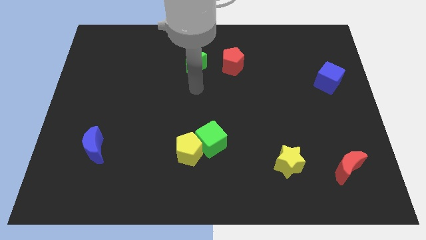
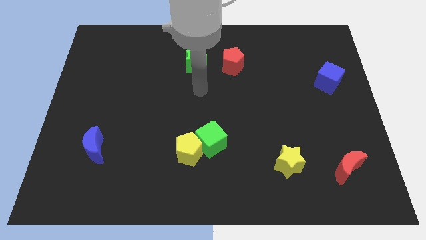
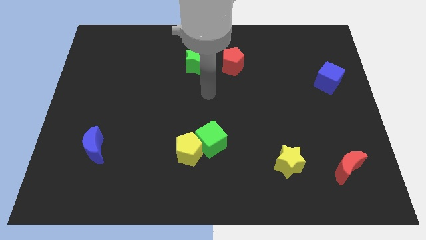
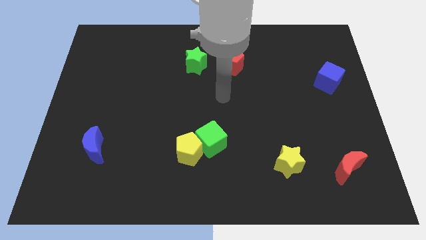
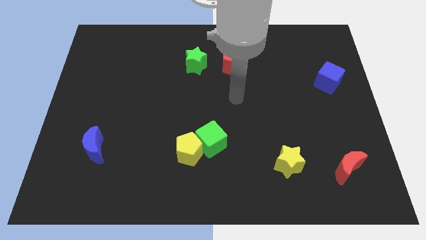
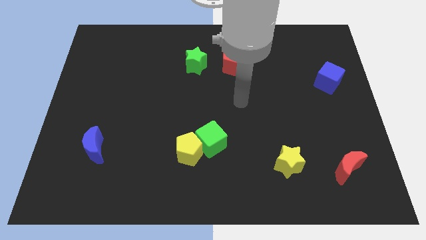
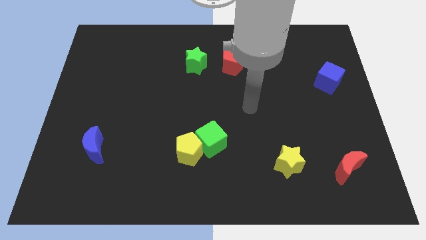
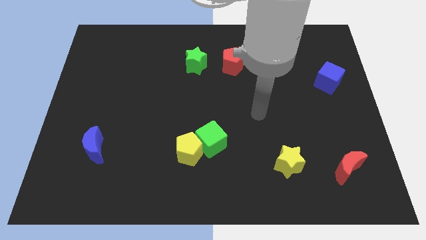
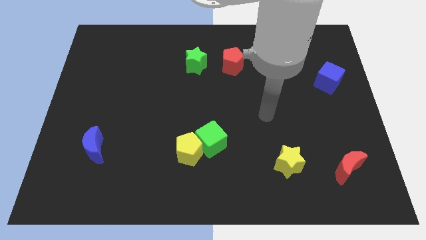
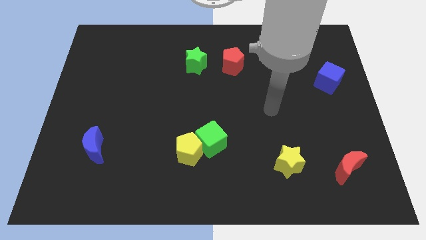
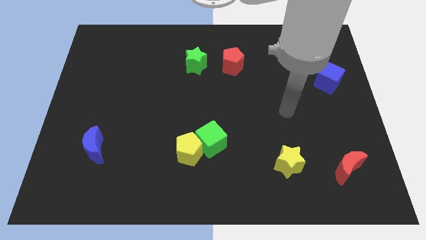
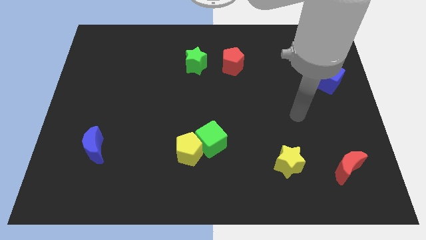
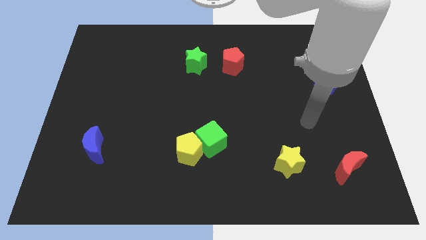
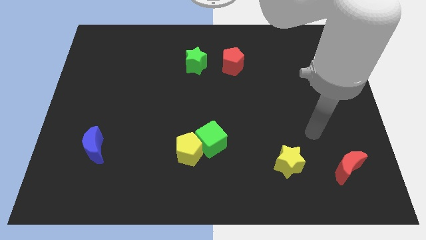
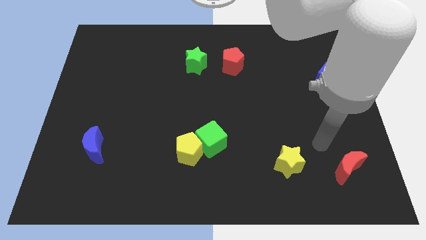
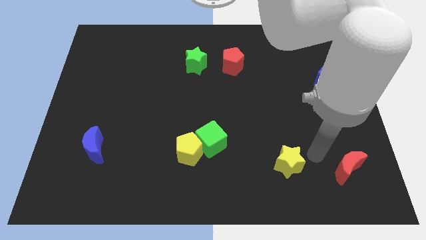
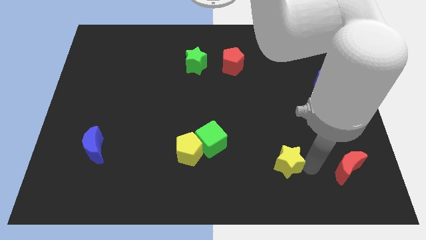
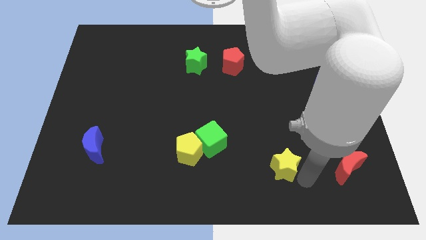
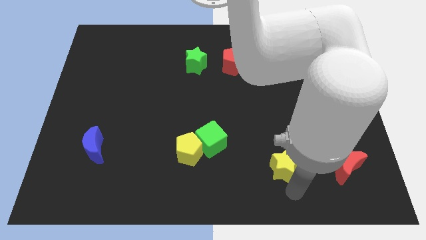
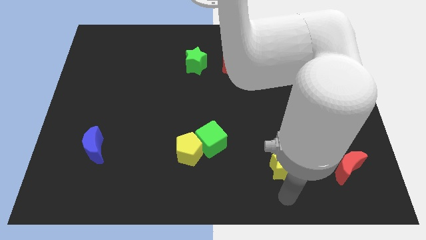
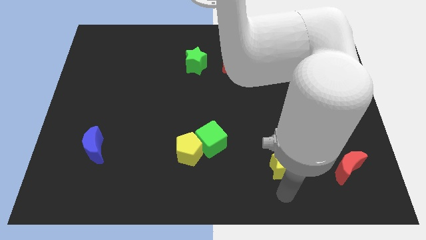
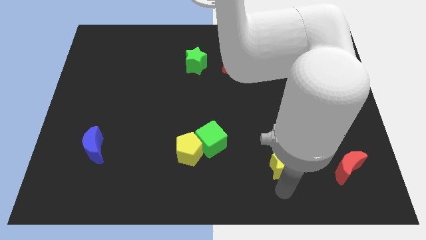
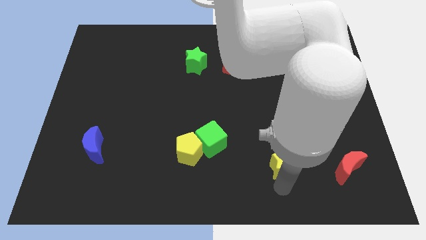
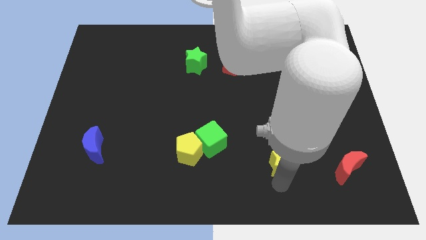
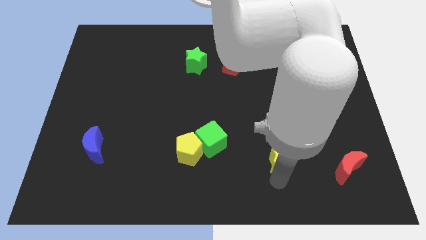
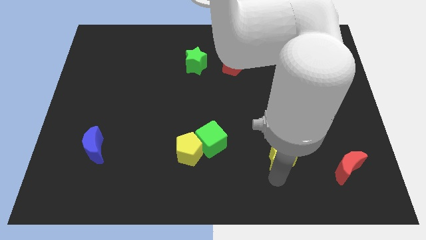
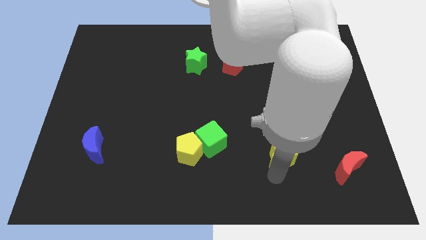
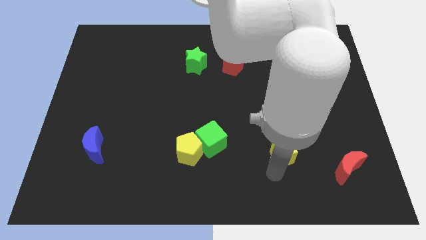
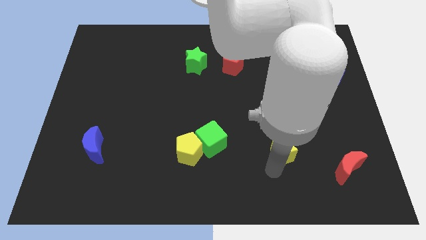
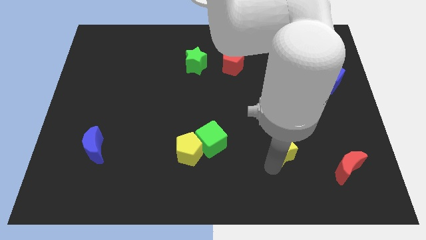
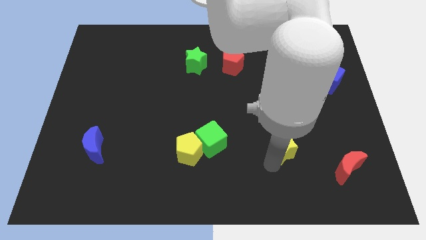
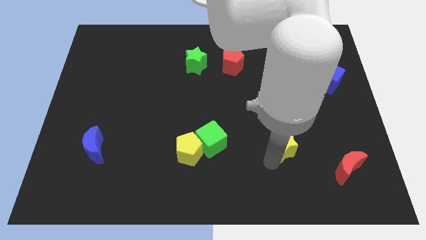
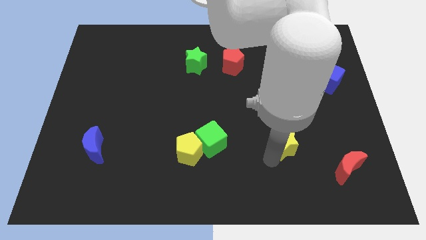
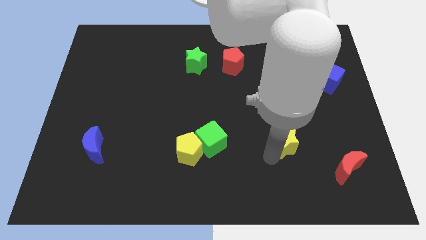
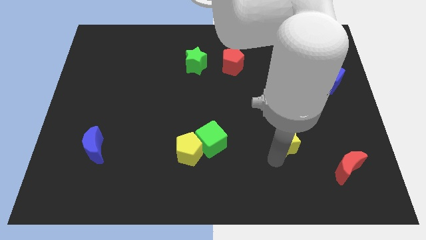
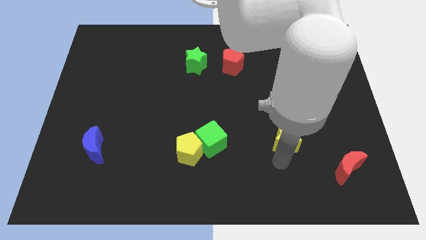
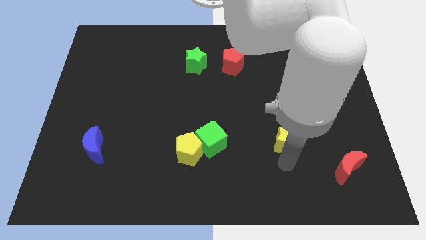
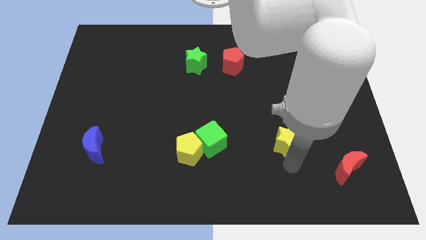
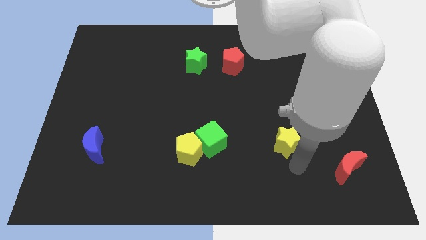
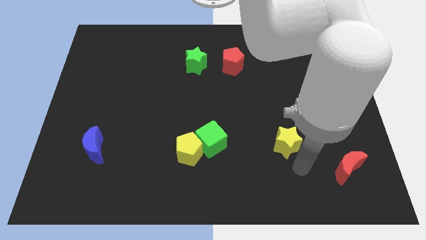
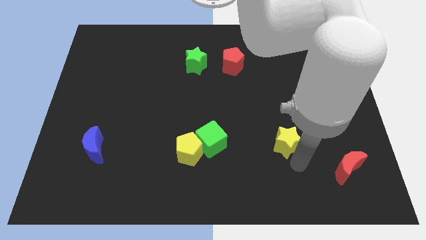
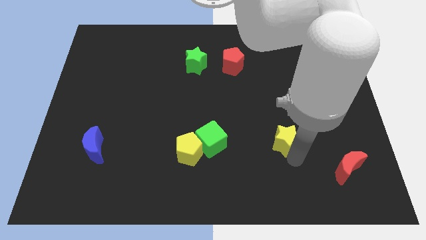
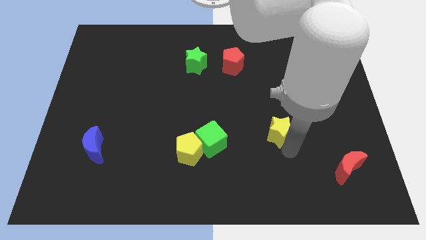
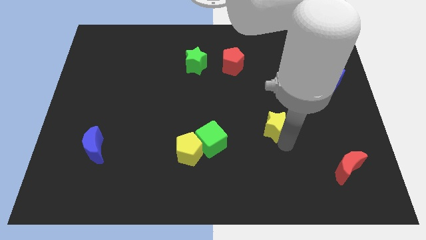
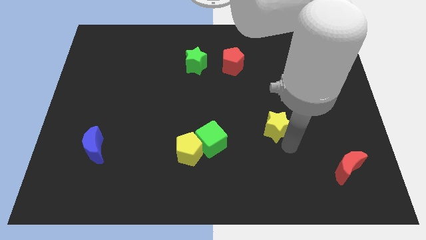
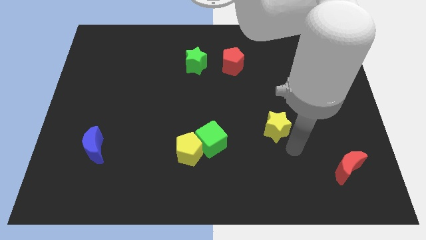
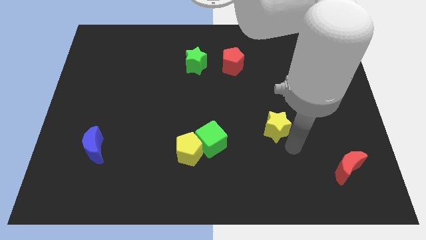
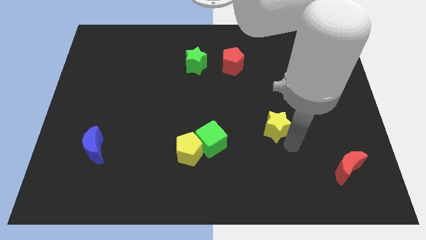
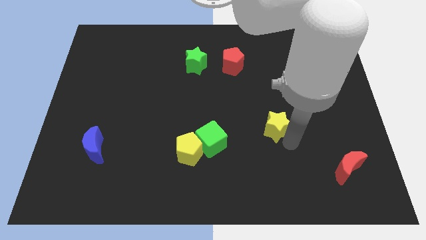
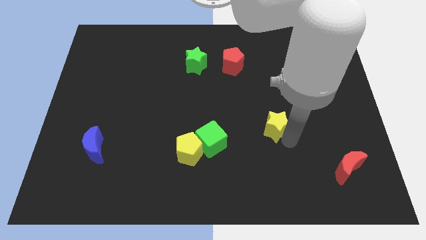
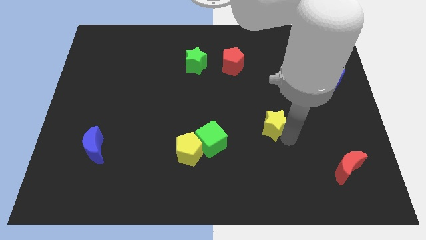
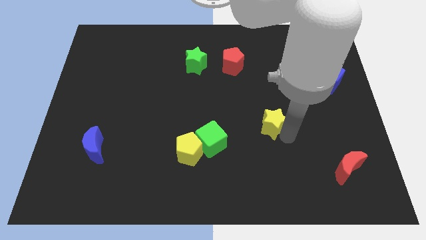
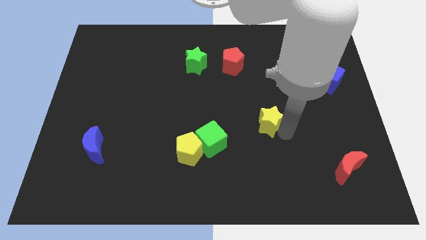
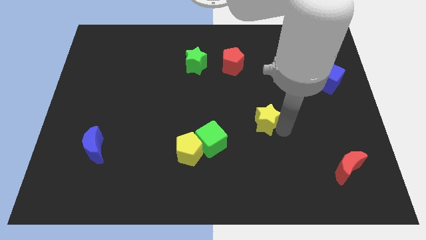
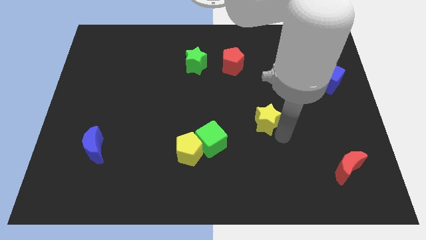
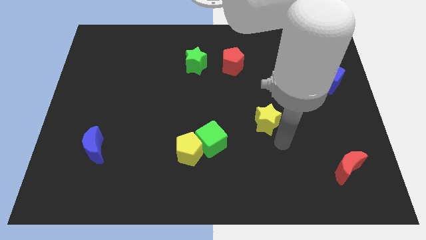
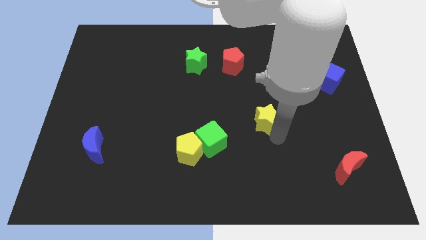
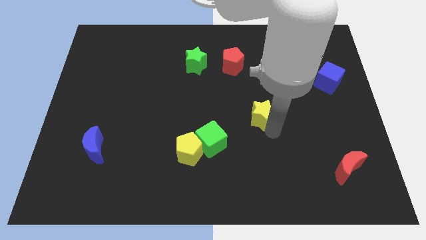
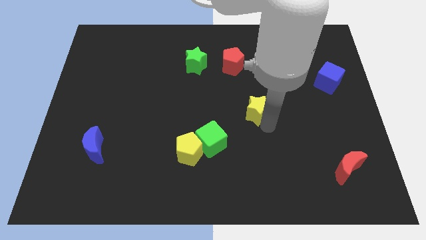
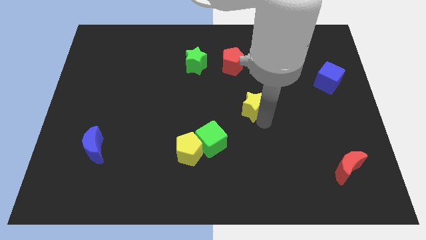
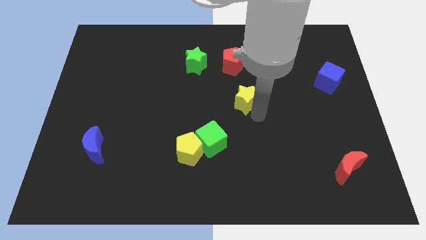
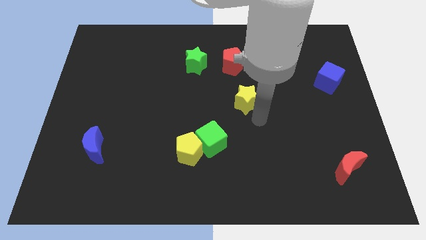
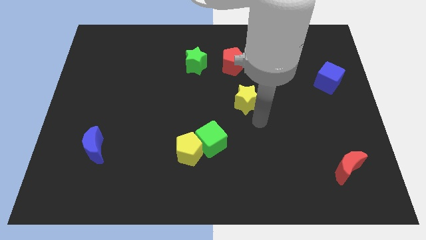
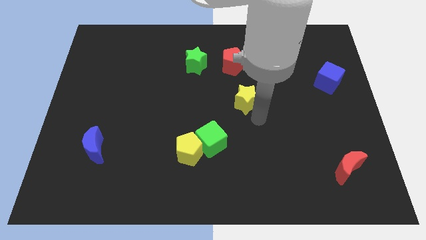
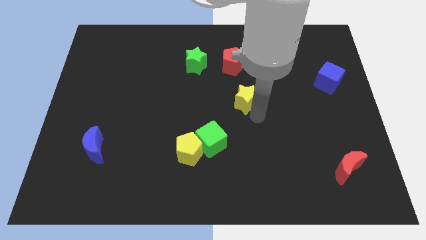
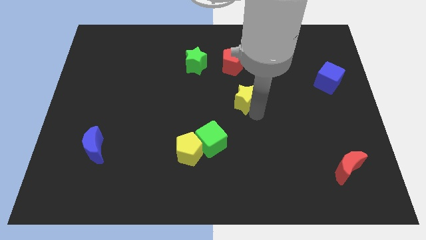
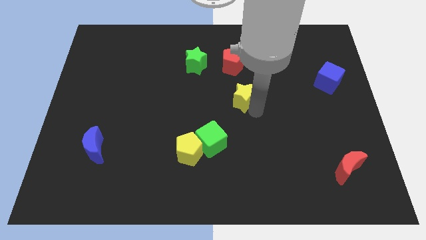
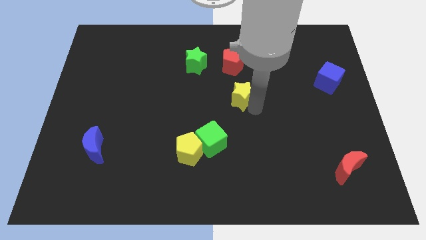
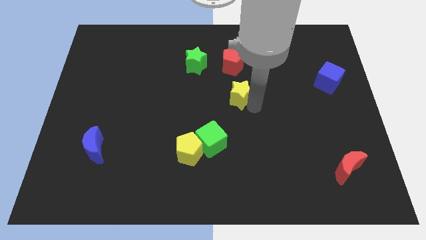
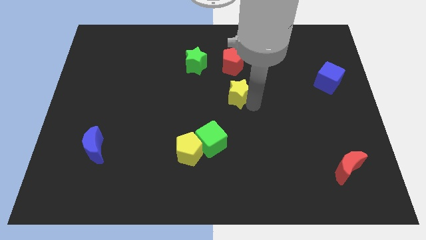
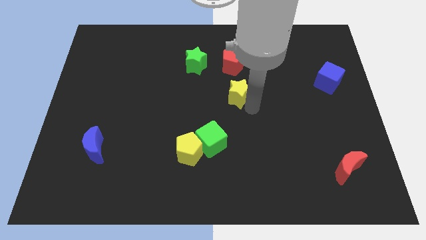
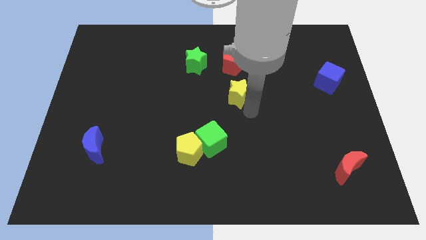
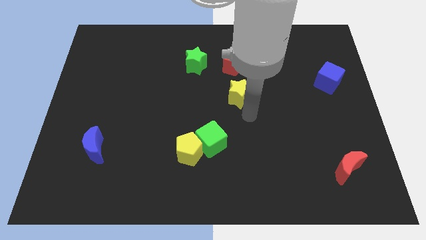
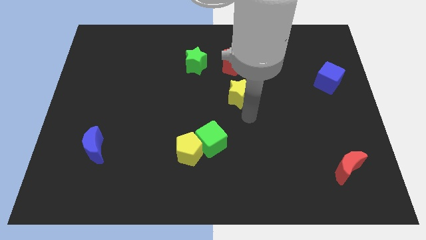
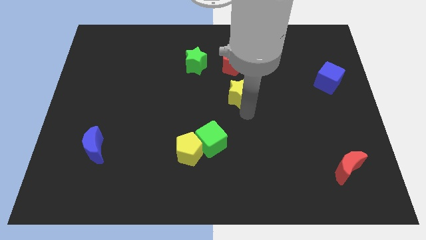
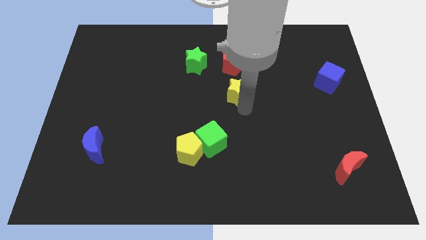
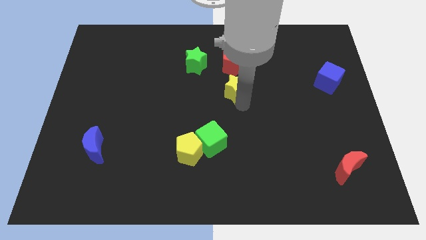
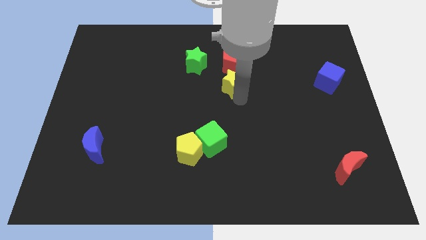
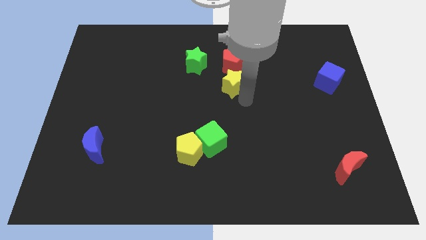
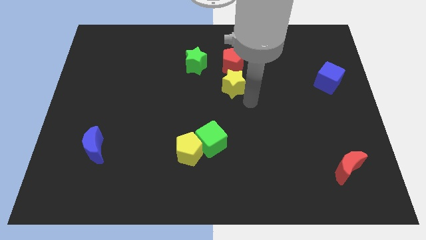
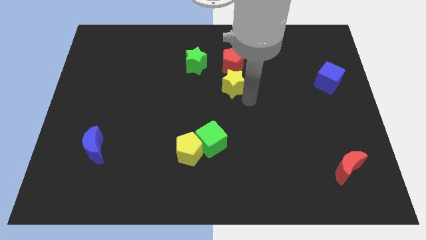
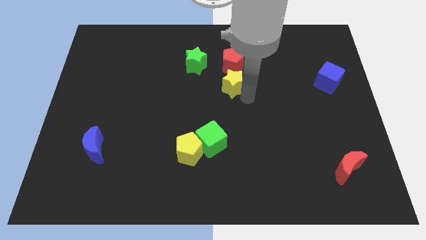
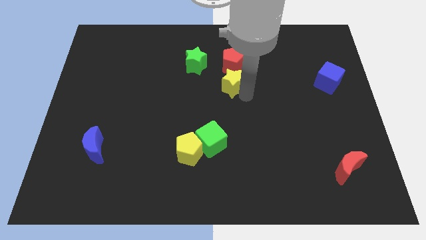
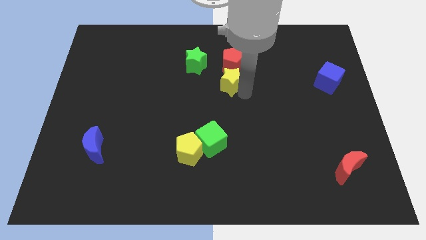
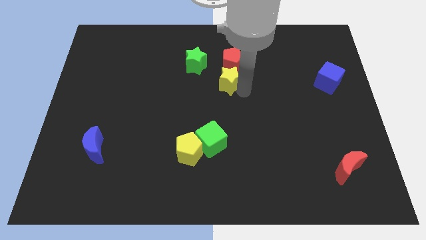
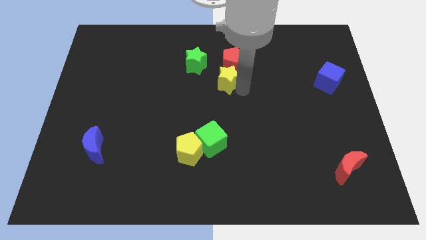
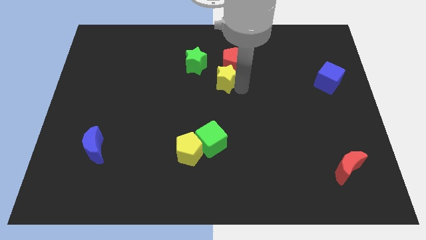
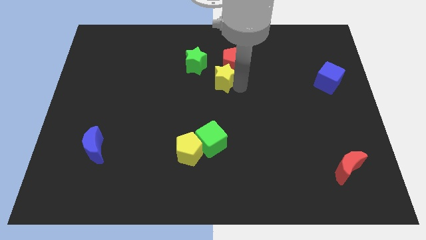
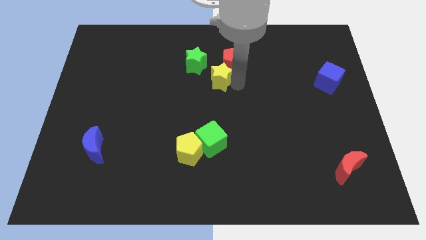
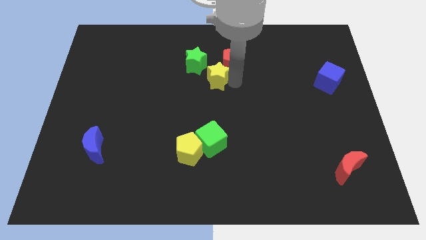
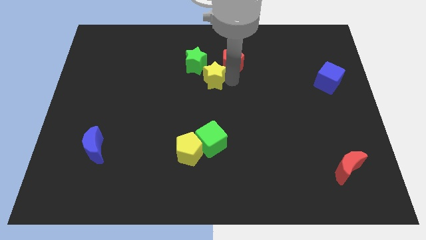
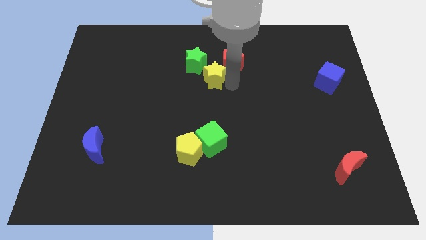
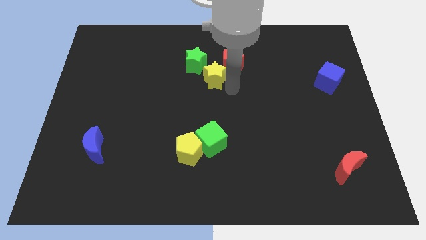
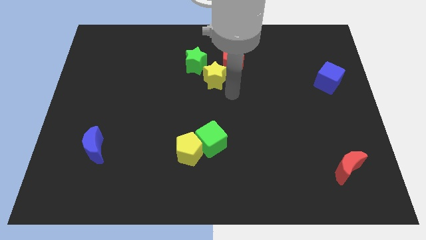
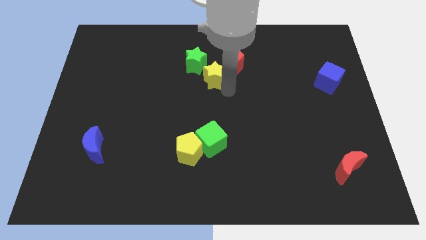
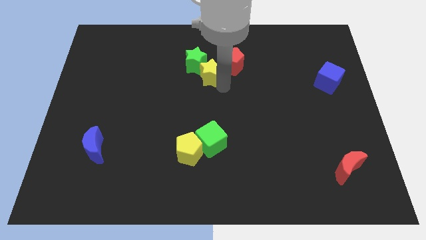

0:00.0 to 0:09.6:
put the yellow star to the green star
